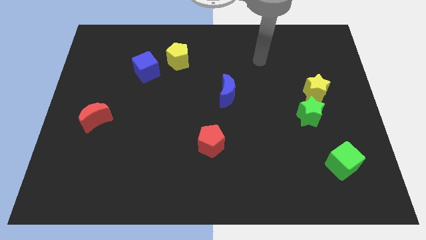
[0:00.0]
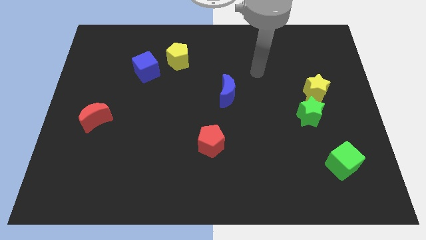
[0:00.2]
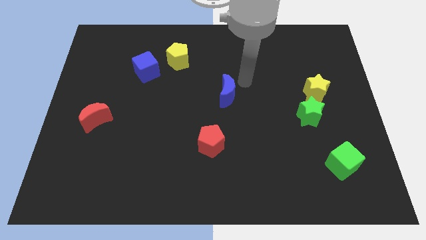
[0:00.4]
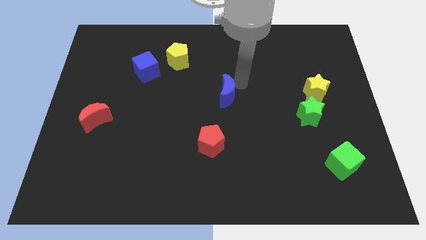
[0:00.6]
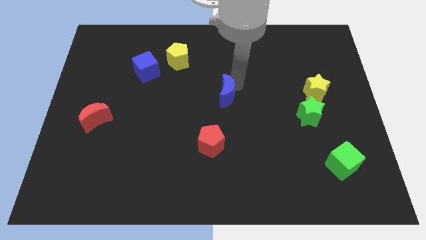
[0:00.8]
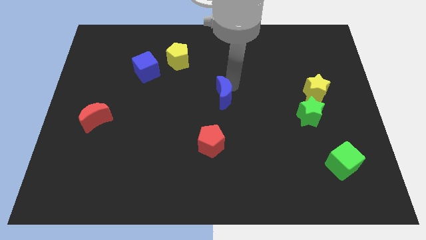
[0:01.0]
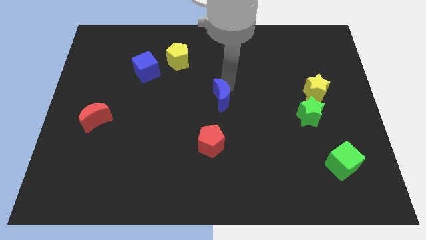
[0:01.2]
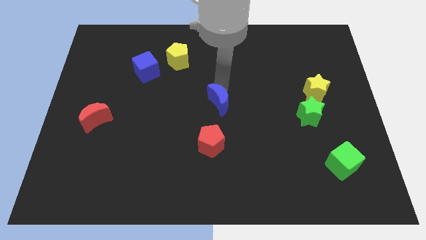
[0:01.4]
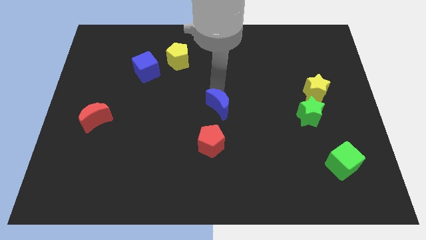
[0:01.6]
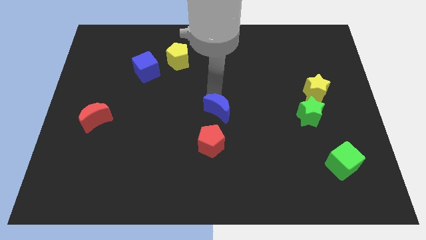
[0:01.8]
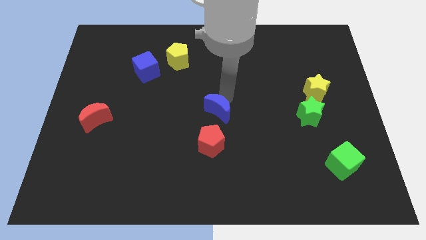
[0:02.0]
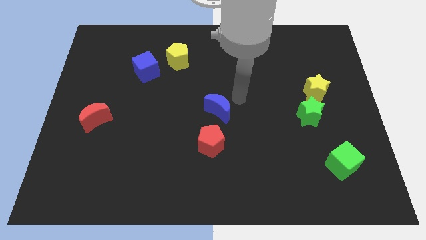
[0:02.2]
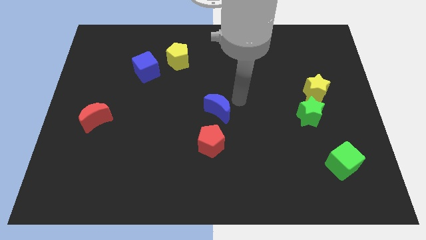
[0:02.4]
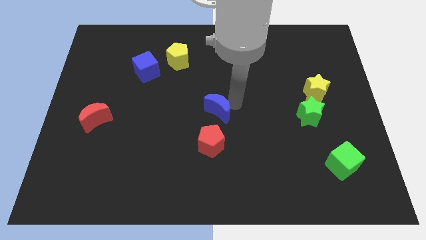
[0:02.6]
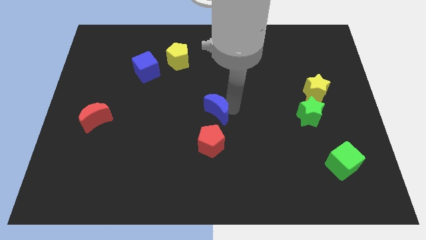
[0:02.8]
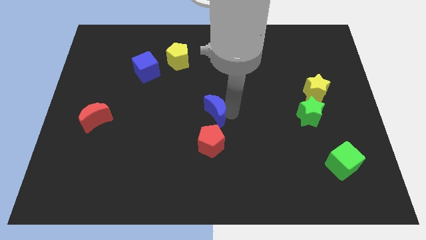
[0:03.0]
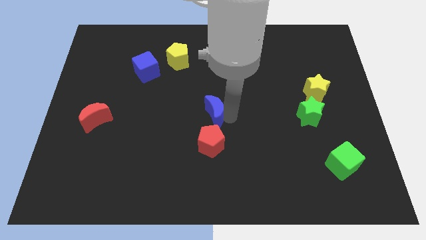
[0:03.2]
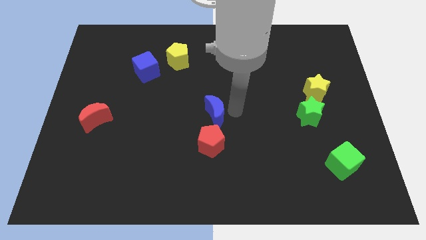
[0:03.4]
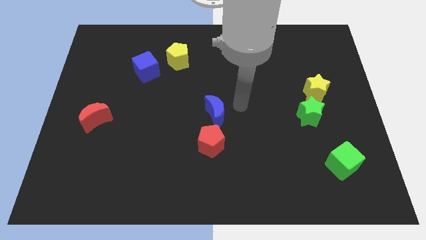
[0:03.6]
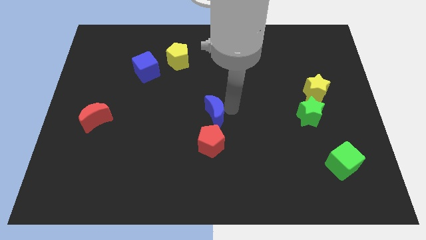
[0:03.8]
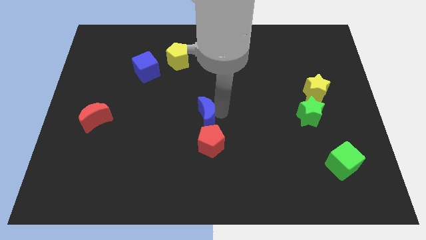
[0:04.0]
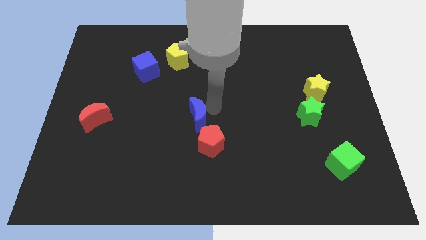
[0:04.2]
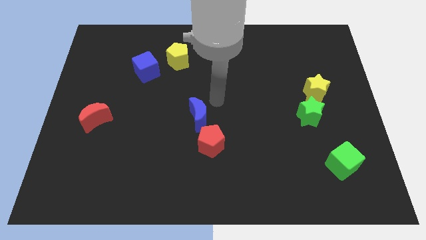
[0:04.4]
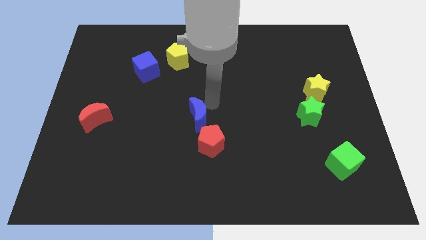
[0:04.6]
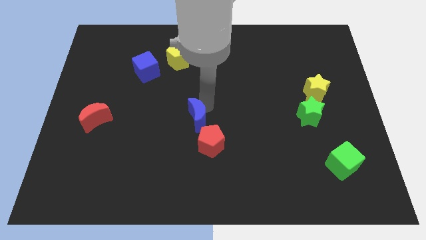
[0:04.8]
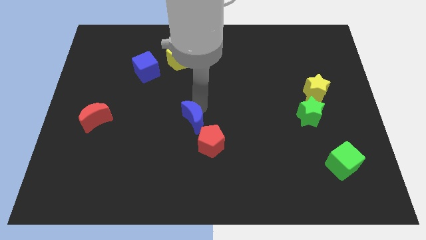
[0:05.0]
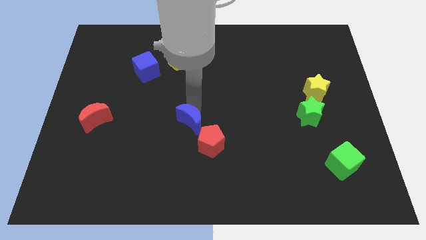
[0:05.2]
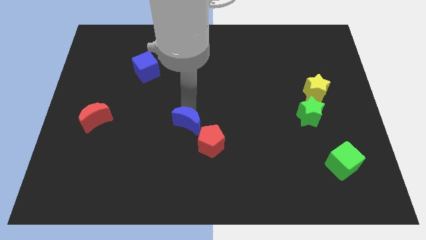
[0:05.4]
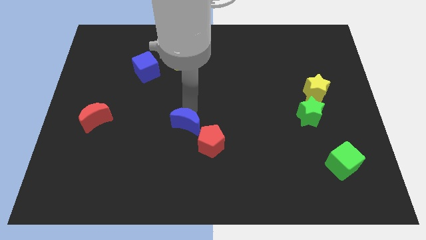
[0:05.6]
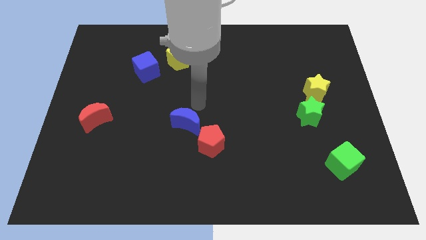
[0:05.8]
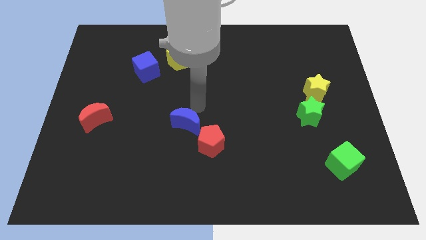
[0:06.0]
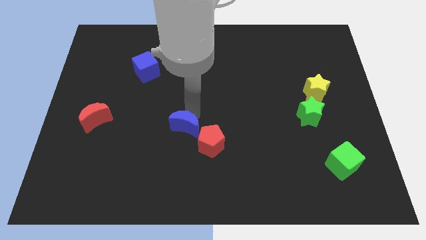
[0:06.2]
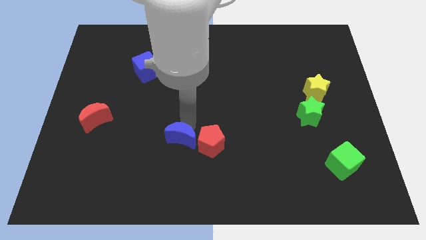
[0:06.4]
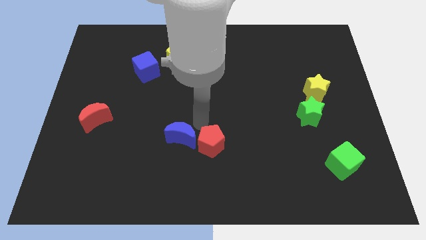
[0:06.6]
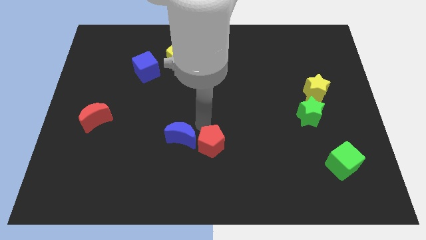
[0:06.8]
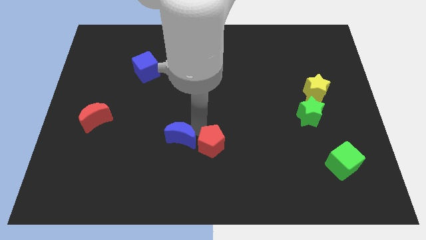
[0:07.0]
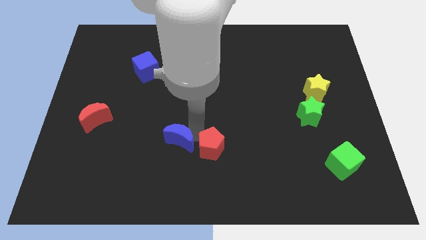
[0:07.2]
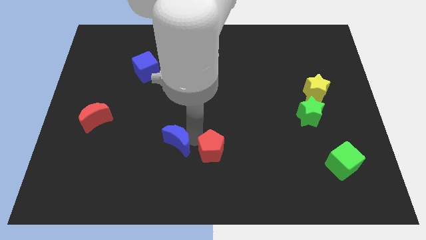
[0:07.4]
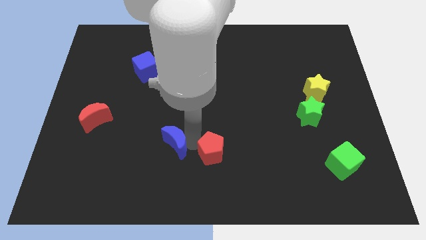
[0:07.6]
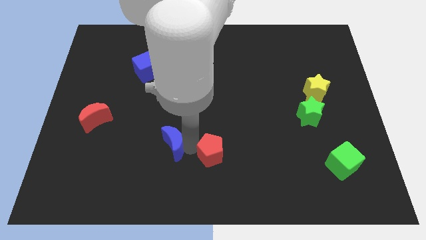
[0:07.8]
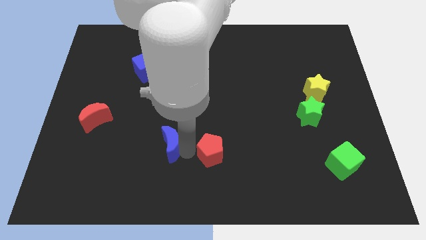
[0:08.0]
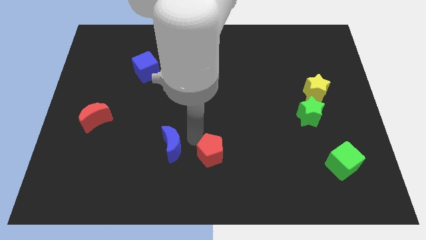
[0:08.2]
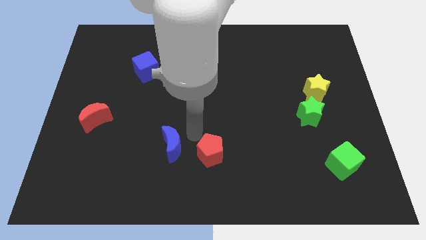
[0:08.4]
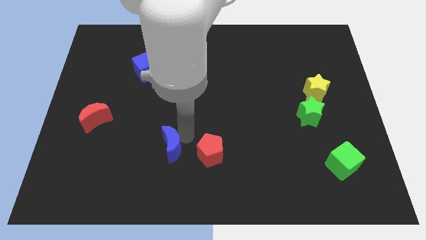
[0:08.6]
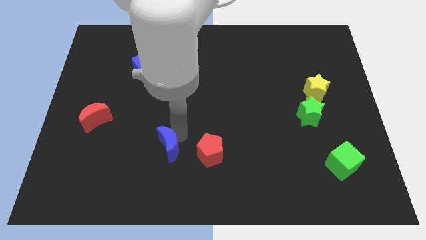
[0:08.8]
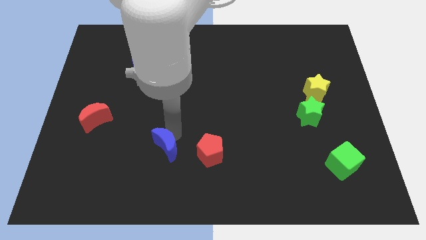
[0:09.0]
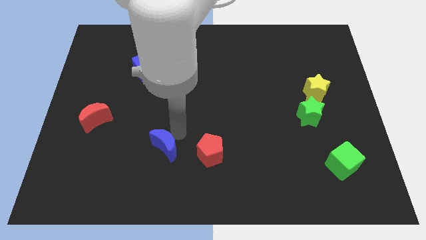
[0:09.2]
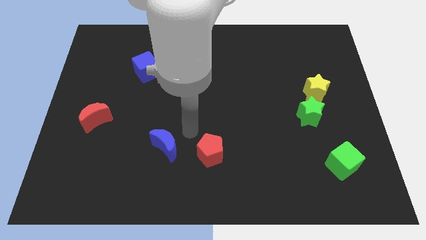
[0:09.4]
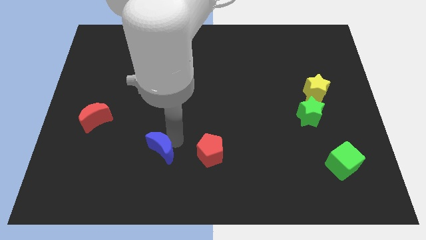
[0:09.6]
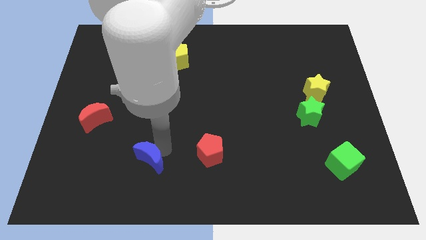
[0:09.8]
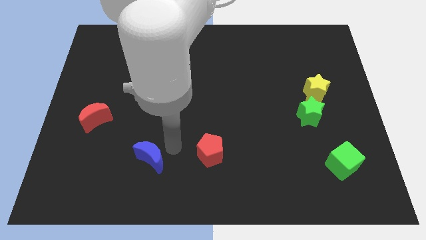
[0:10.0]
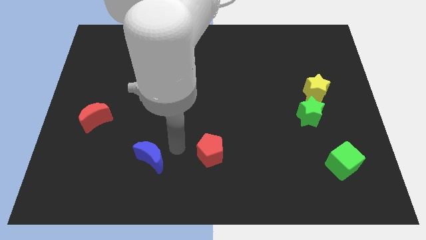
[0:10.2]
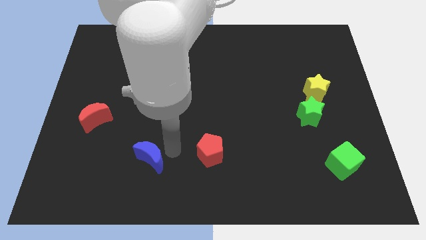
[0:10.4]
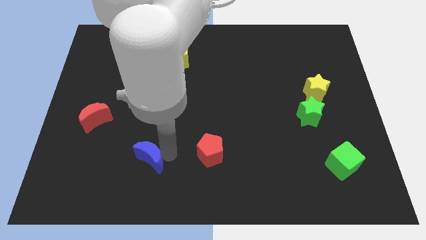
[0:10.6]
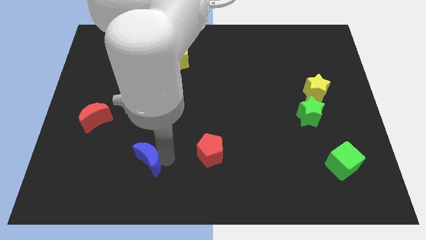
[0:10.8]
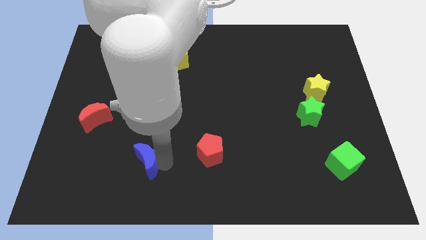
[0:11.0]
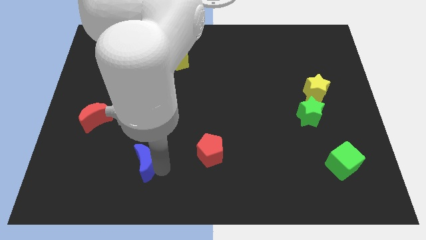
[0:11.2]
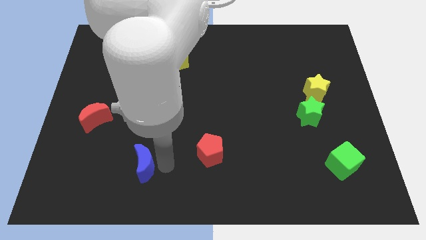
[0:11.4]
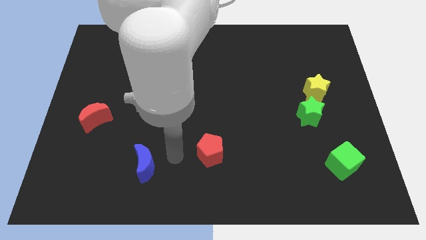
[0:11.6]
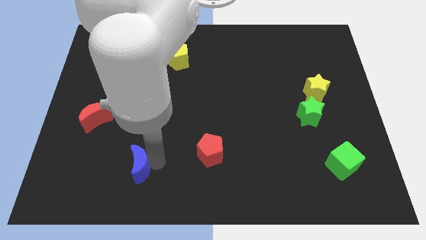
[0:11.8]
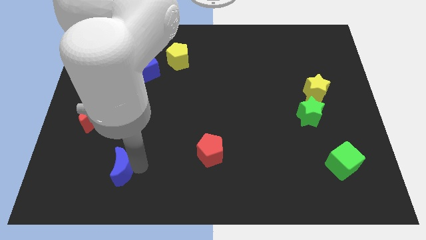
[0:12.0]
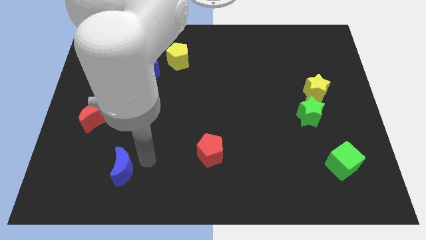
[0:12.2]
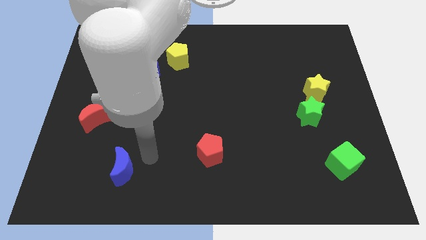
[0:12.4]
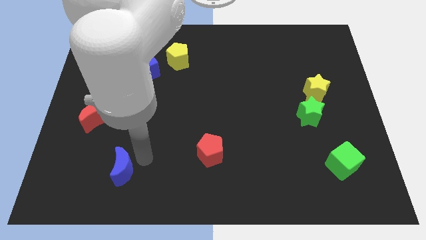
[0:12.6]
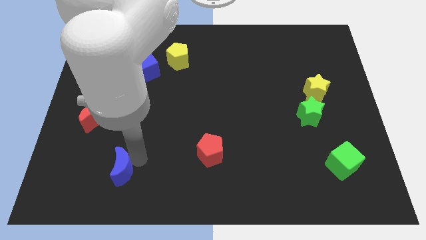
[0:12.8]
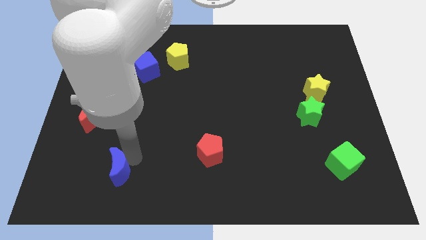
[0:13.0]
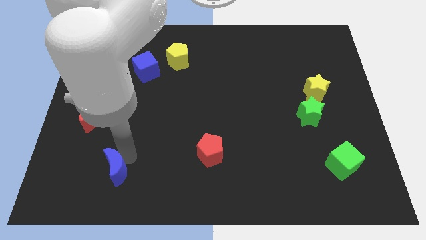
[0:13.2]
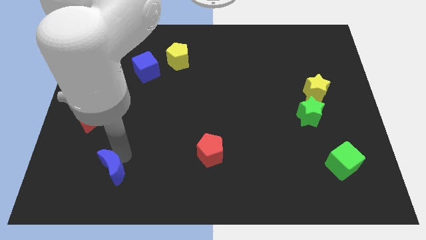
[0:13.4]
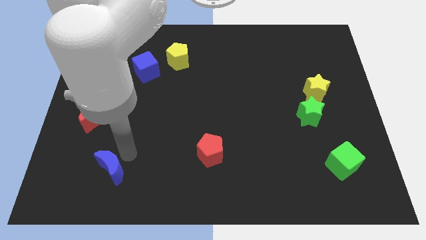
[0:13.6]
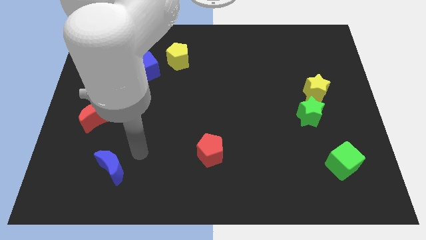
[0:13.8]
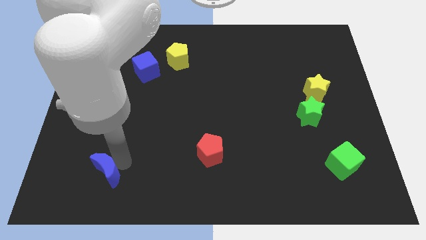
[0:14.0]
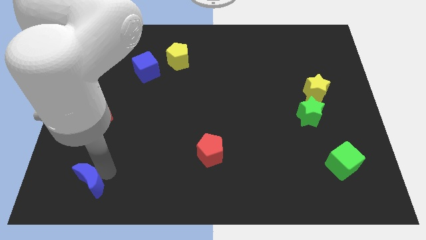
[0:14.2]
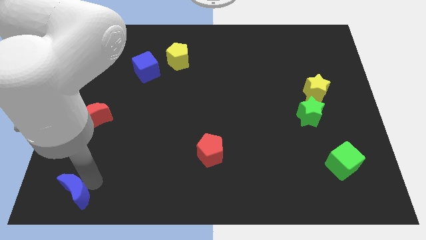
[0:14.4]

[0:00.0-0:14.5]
push the blue moon to the bottom left
